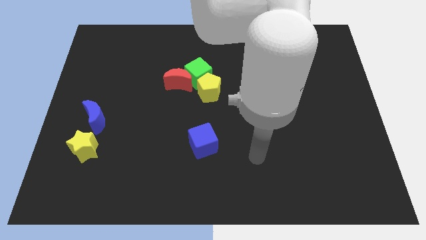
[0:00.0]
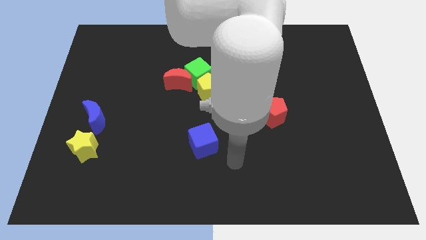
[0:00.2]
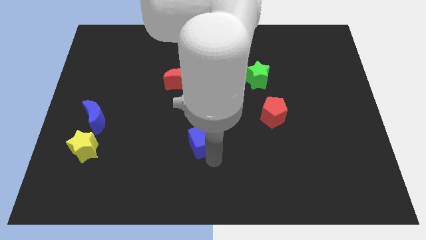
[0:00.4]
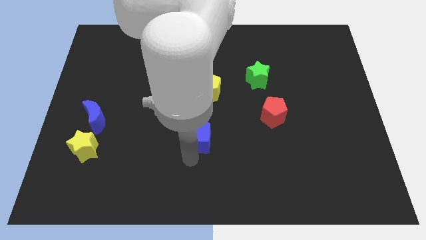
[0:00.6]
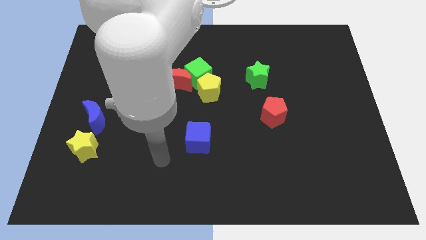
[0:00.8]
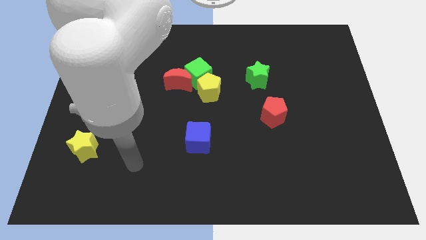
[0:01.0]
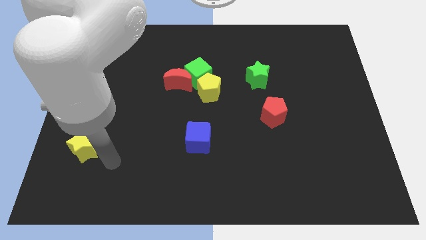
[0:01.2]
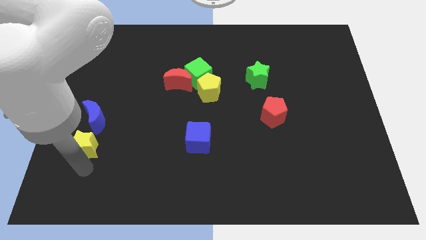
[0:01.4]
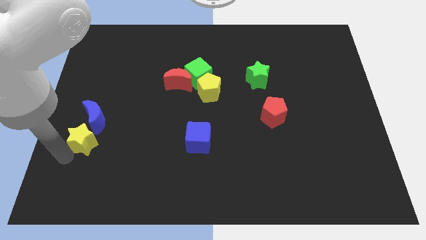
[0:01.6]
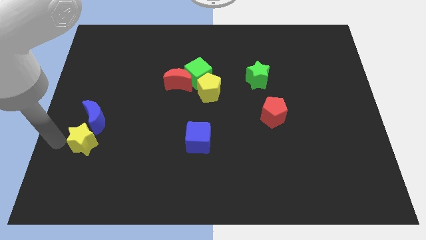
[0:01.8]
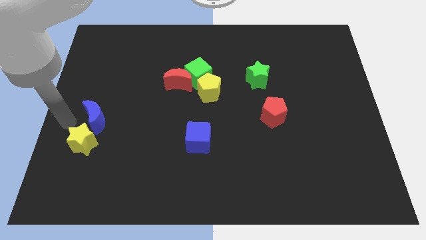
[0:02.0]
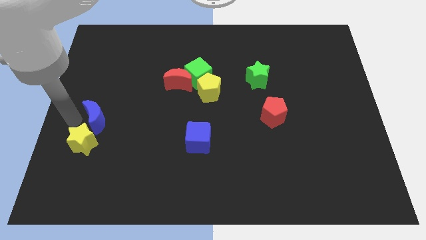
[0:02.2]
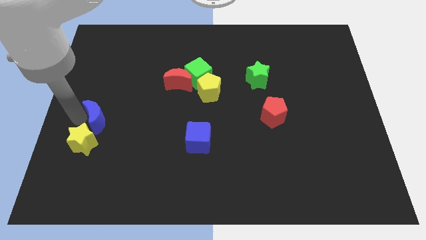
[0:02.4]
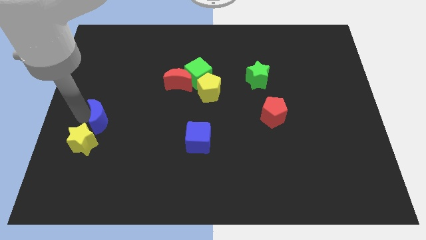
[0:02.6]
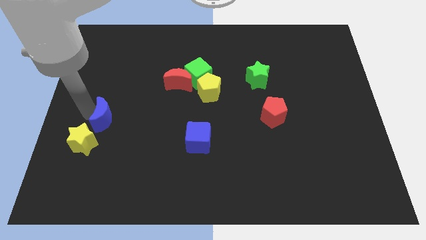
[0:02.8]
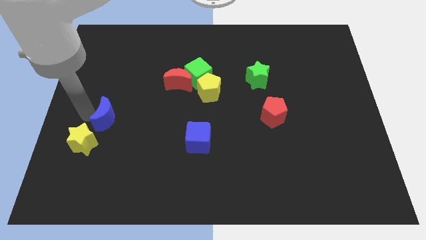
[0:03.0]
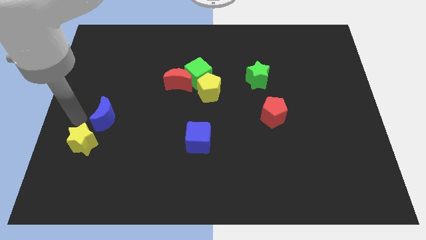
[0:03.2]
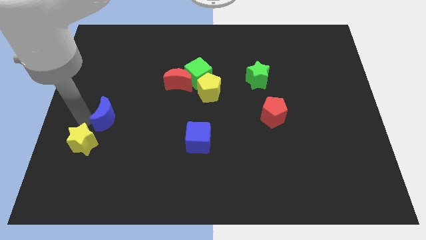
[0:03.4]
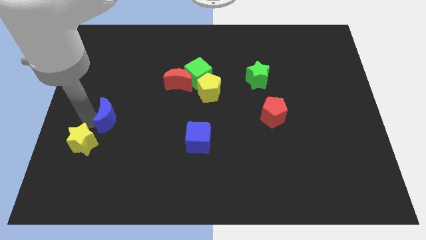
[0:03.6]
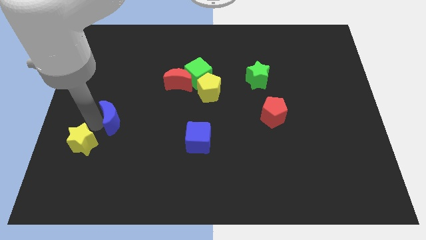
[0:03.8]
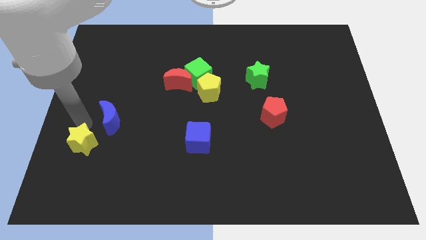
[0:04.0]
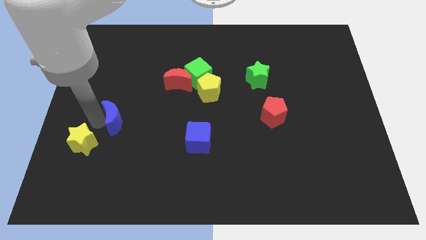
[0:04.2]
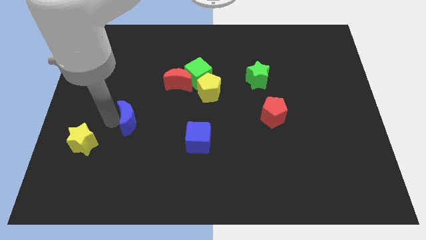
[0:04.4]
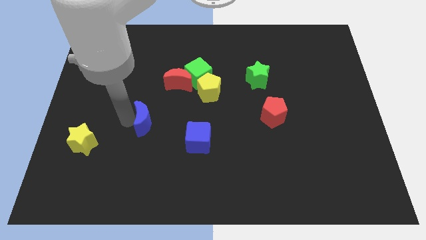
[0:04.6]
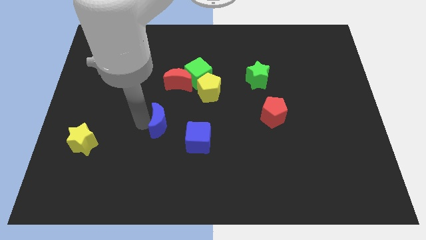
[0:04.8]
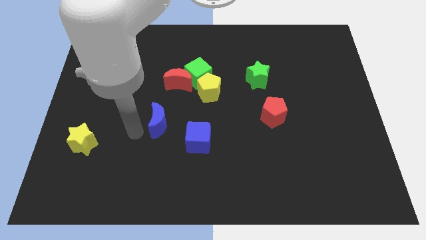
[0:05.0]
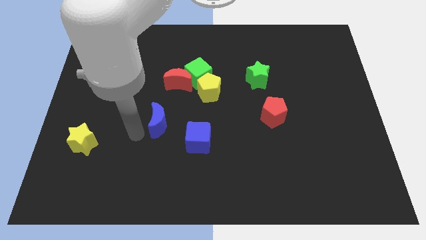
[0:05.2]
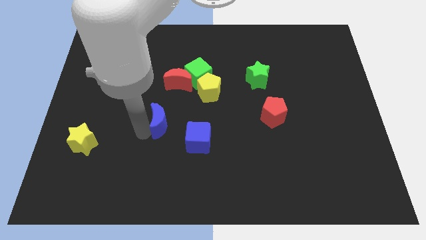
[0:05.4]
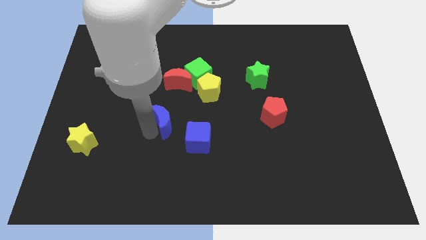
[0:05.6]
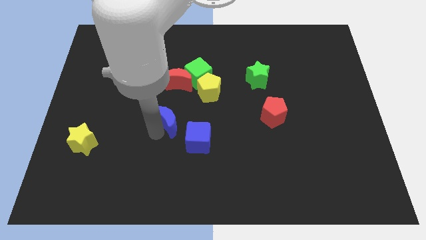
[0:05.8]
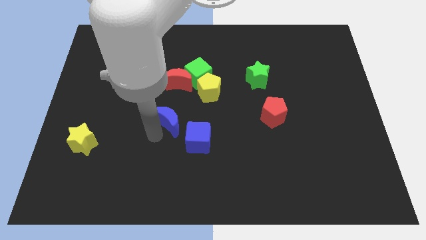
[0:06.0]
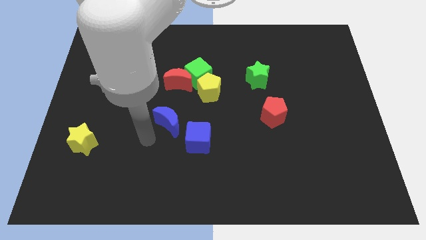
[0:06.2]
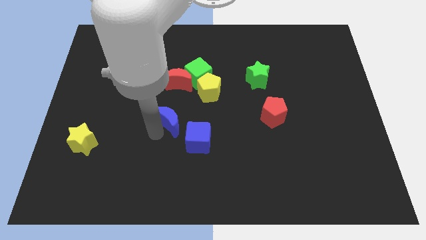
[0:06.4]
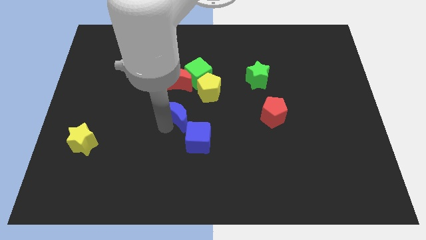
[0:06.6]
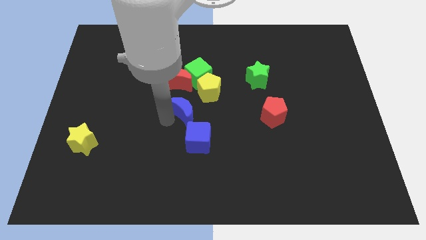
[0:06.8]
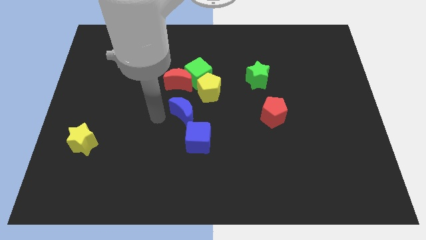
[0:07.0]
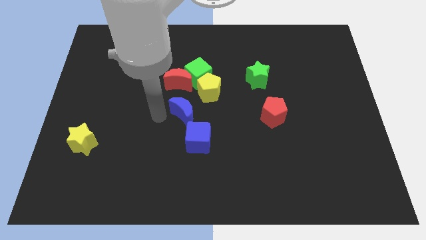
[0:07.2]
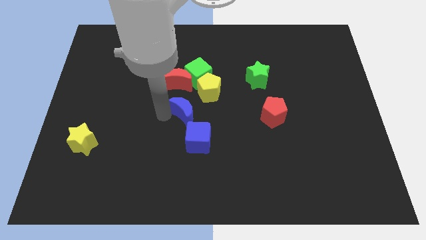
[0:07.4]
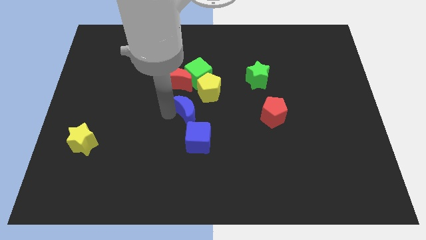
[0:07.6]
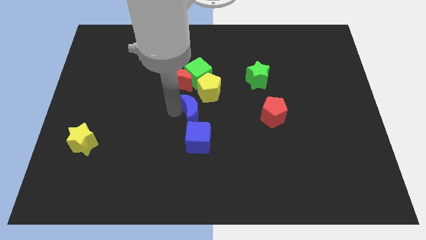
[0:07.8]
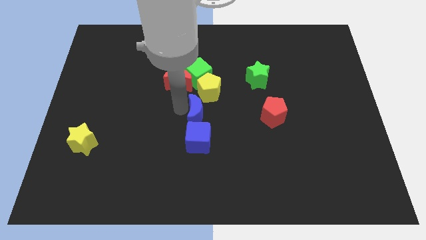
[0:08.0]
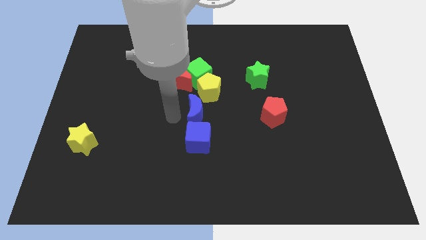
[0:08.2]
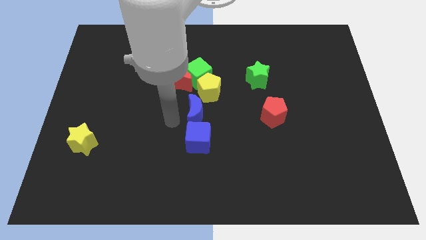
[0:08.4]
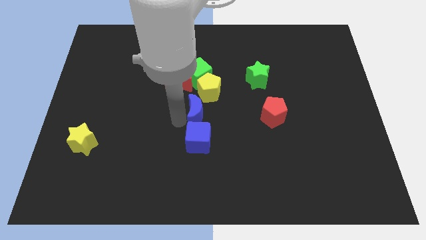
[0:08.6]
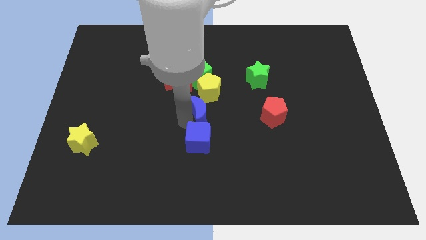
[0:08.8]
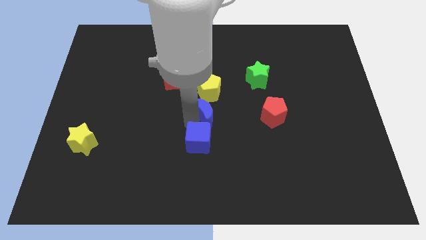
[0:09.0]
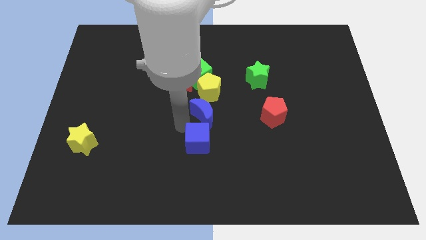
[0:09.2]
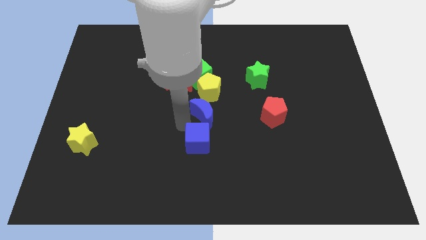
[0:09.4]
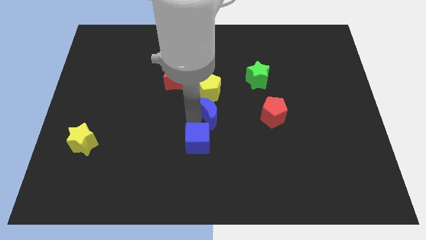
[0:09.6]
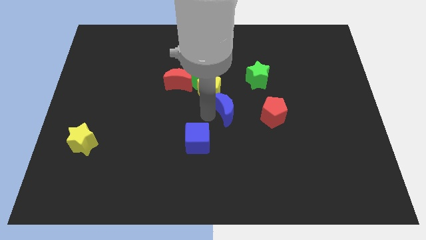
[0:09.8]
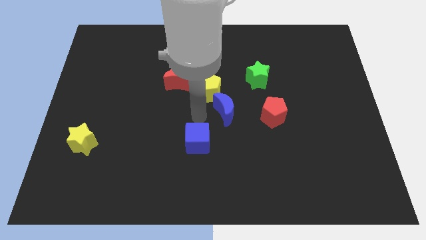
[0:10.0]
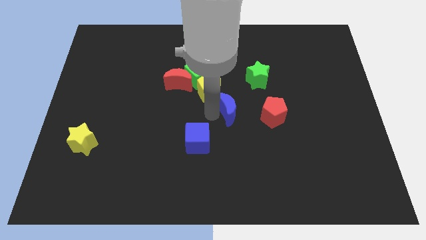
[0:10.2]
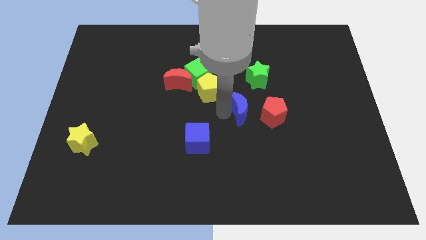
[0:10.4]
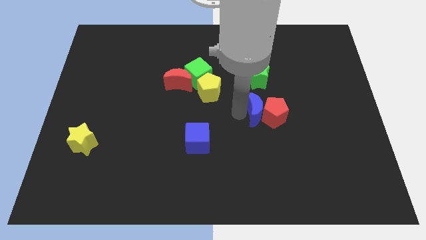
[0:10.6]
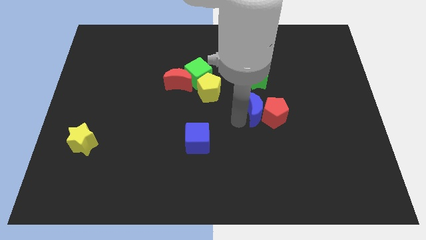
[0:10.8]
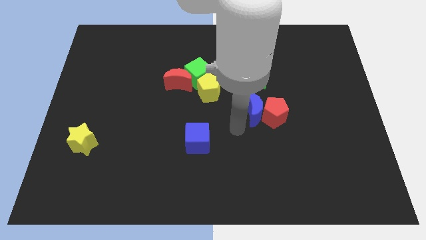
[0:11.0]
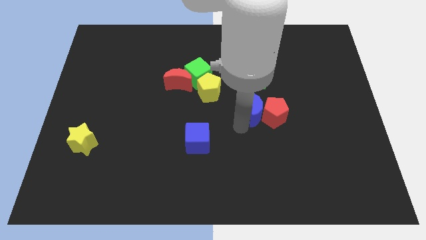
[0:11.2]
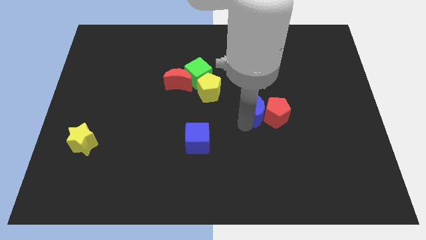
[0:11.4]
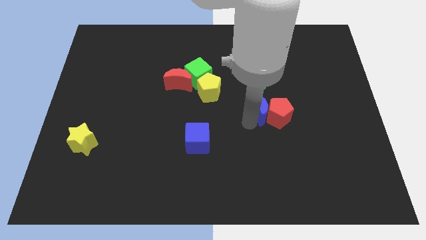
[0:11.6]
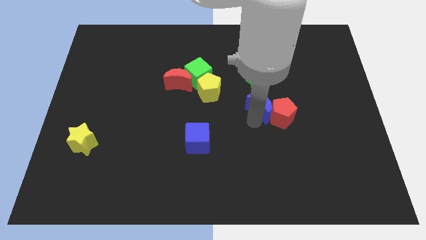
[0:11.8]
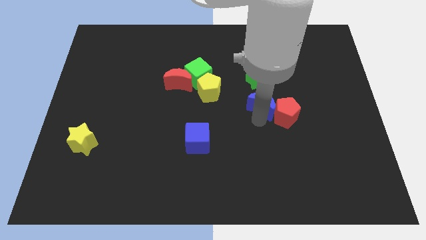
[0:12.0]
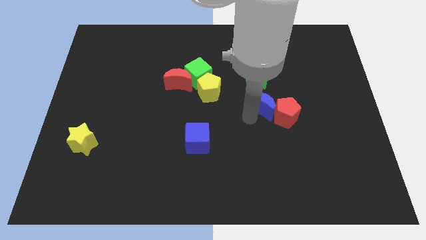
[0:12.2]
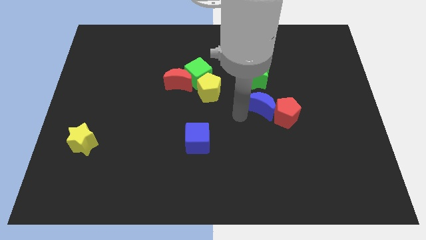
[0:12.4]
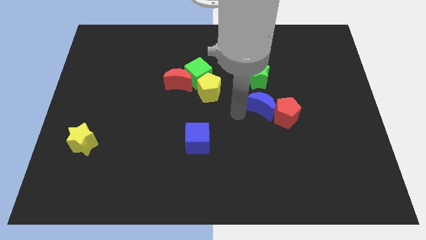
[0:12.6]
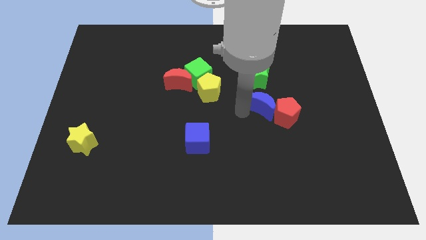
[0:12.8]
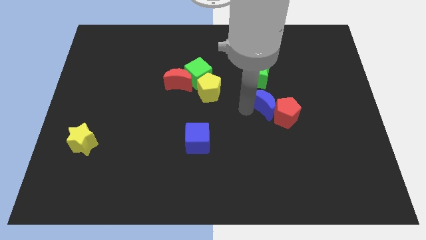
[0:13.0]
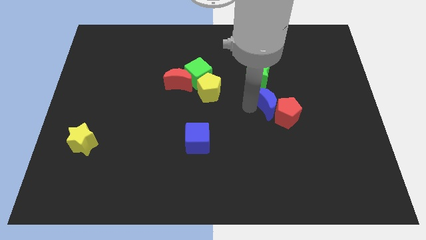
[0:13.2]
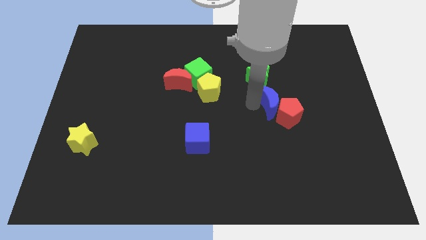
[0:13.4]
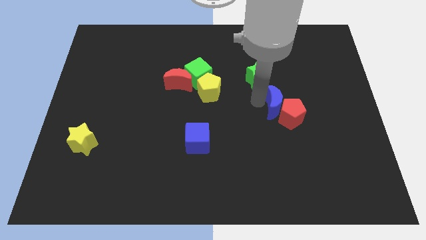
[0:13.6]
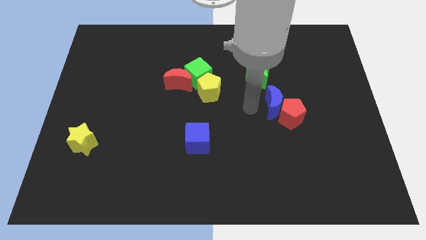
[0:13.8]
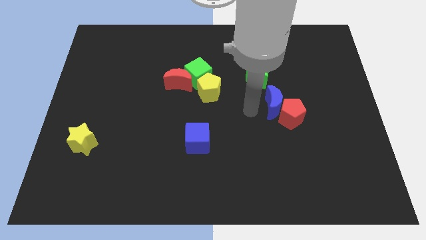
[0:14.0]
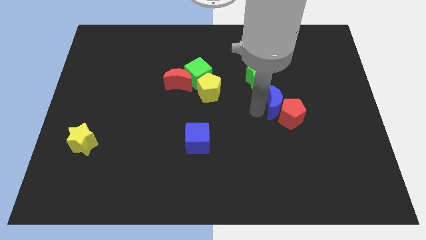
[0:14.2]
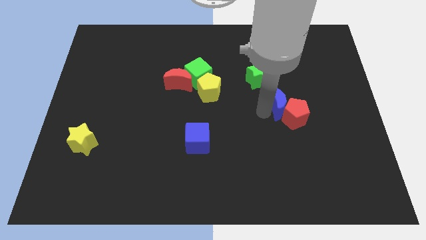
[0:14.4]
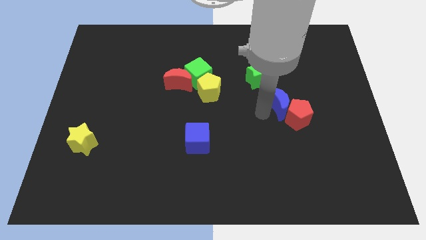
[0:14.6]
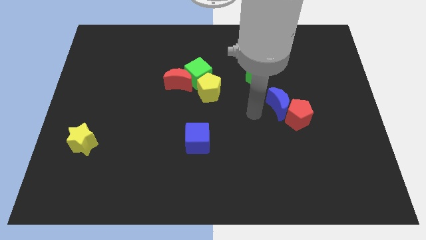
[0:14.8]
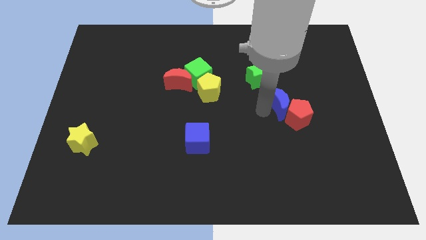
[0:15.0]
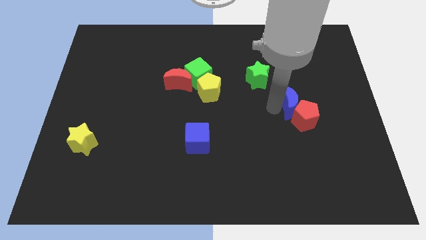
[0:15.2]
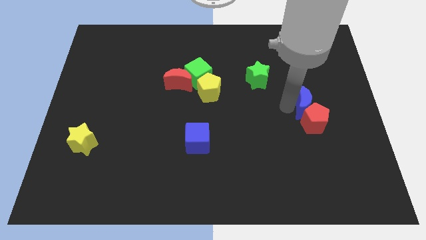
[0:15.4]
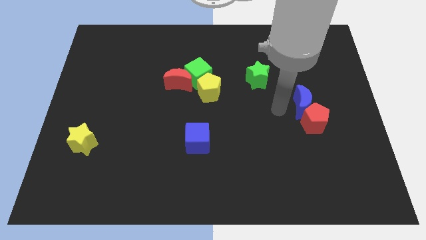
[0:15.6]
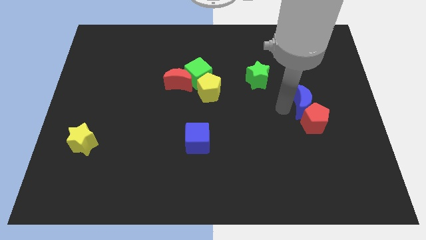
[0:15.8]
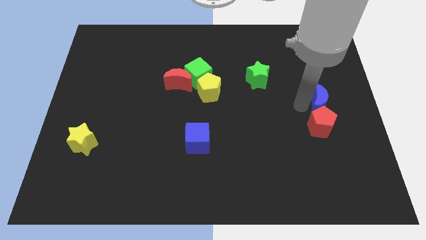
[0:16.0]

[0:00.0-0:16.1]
move the blue moon to the center right
